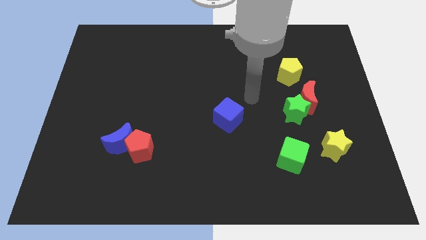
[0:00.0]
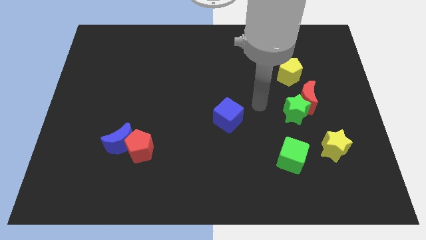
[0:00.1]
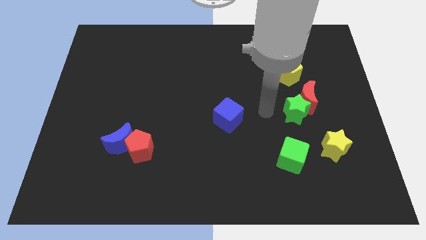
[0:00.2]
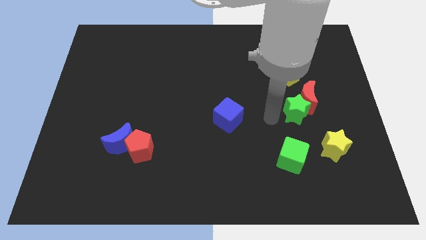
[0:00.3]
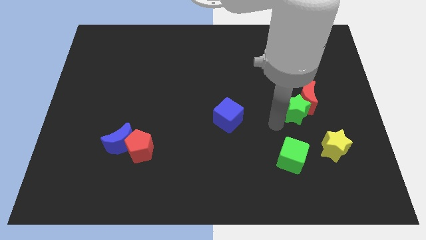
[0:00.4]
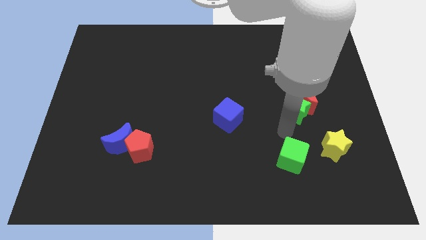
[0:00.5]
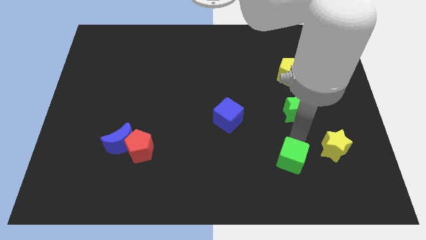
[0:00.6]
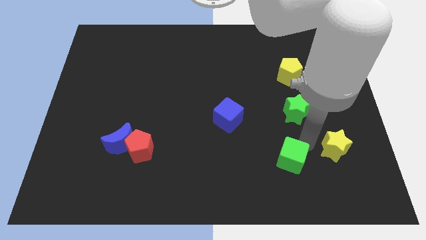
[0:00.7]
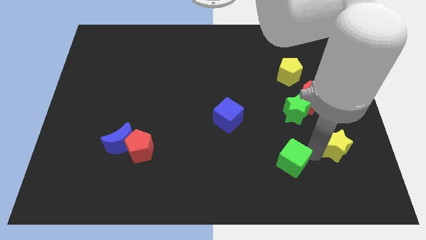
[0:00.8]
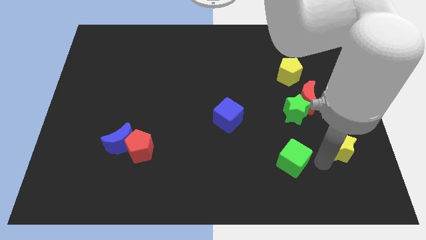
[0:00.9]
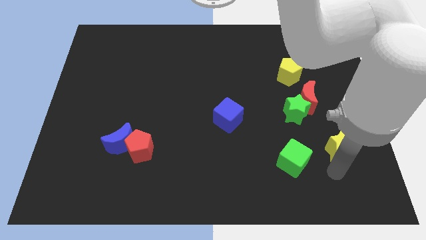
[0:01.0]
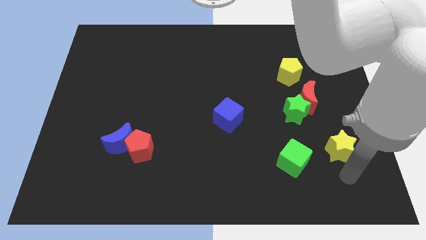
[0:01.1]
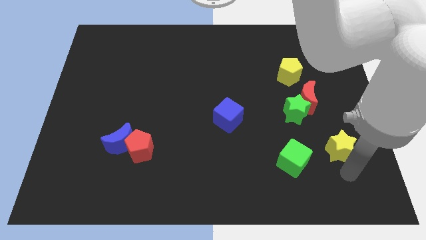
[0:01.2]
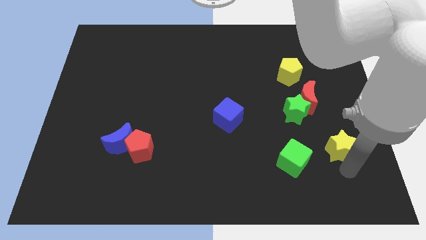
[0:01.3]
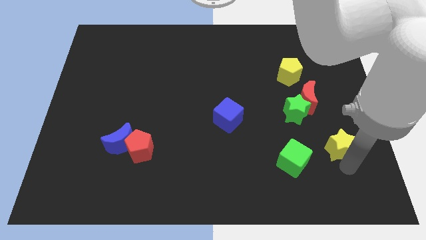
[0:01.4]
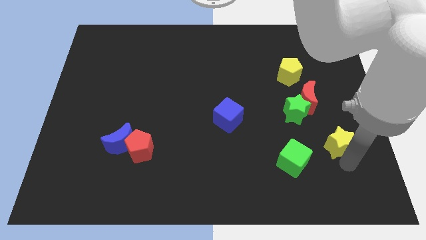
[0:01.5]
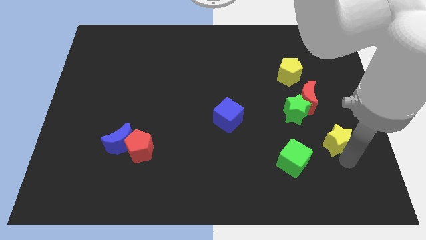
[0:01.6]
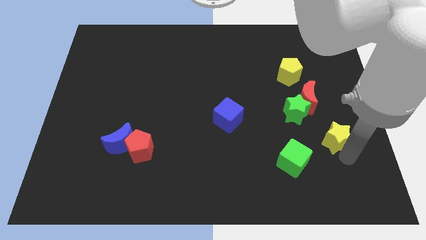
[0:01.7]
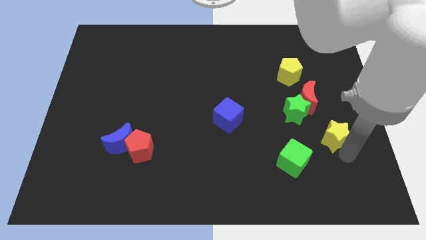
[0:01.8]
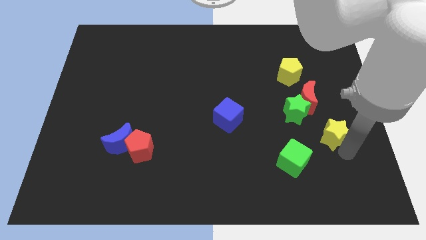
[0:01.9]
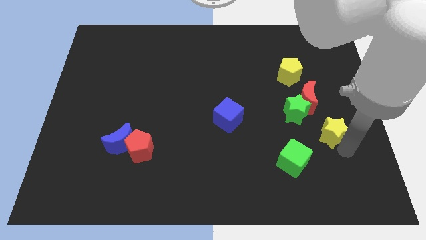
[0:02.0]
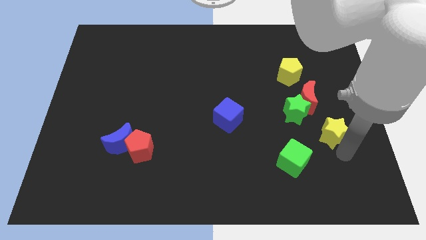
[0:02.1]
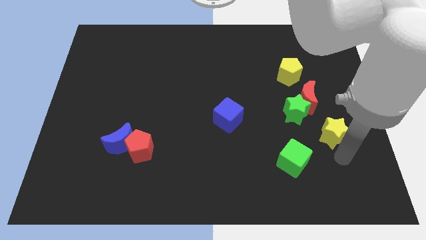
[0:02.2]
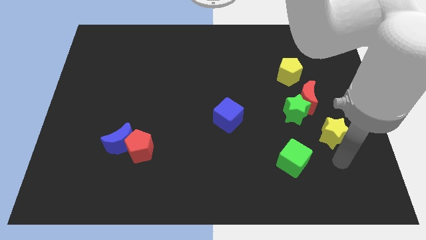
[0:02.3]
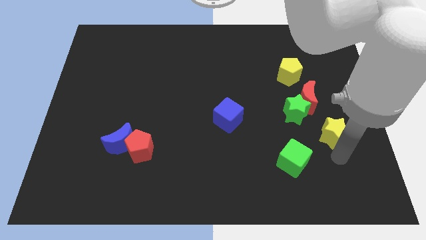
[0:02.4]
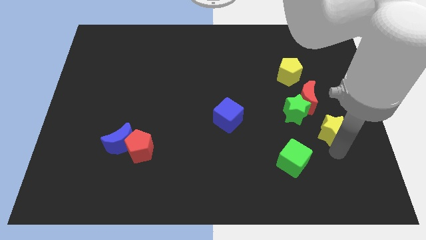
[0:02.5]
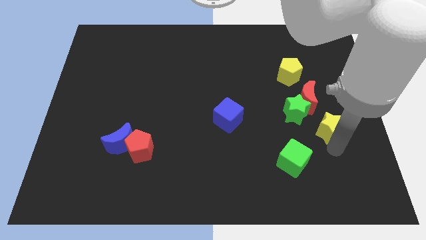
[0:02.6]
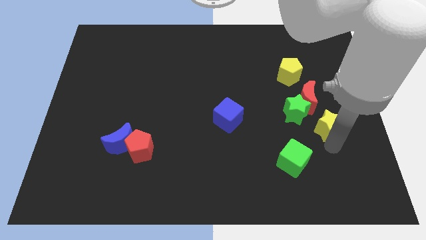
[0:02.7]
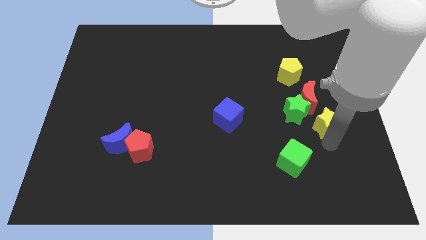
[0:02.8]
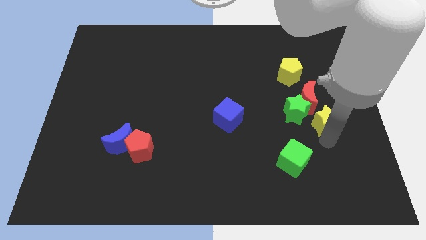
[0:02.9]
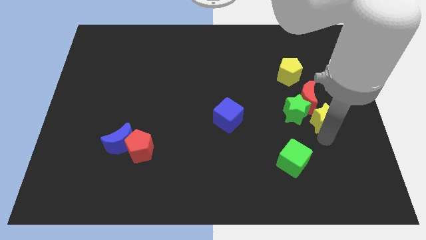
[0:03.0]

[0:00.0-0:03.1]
move the yellow star somewhat up

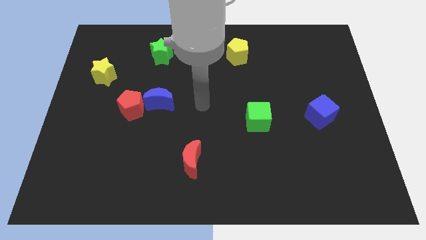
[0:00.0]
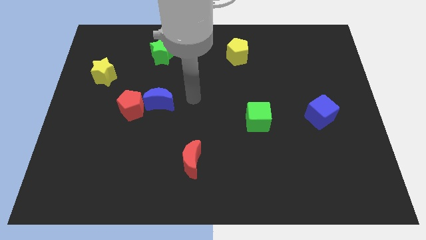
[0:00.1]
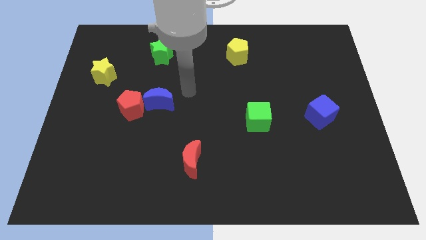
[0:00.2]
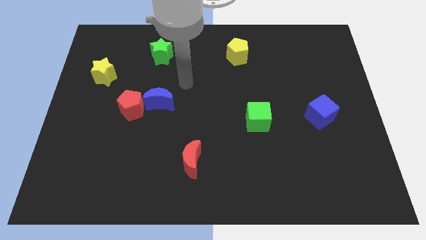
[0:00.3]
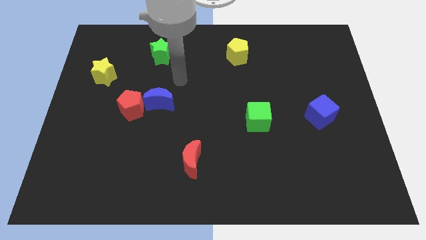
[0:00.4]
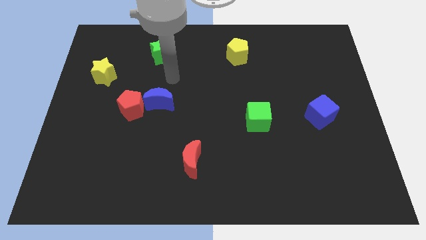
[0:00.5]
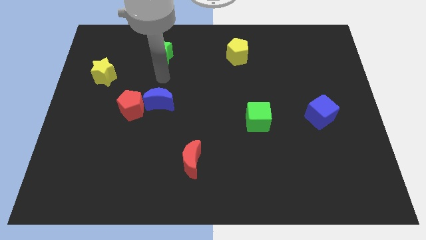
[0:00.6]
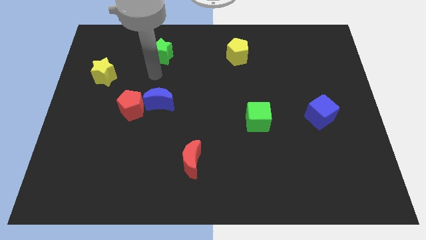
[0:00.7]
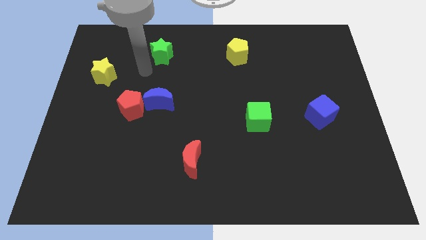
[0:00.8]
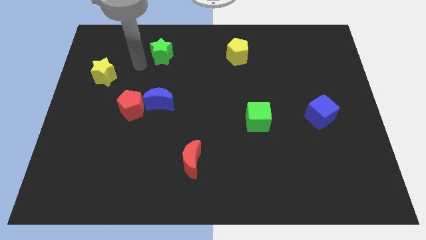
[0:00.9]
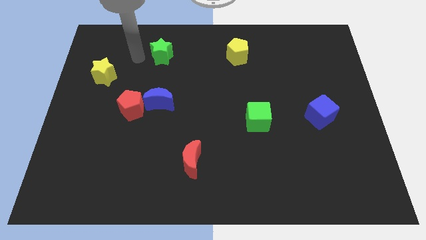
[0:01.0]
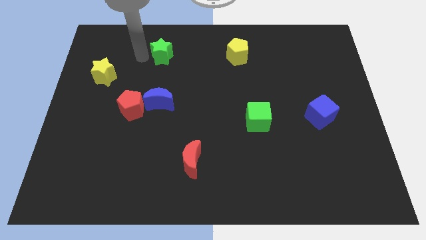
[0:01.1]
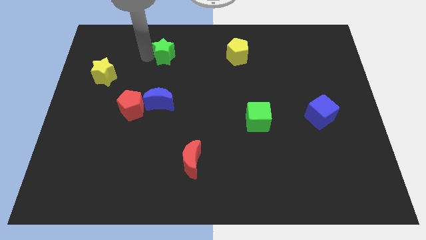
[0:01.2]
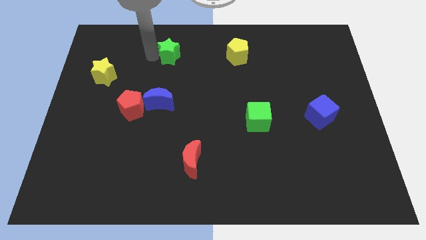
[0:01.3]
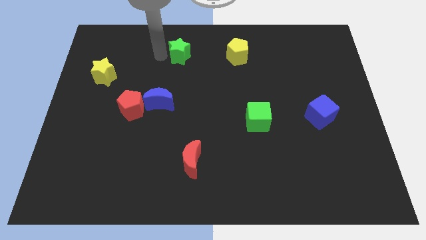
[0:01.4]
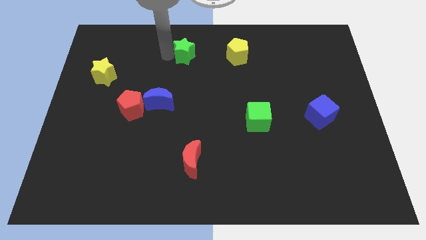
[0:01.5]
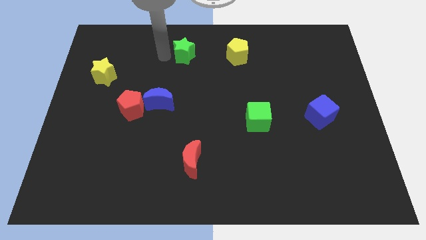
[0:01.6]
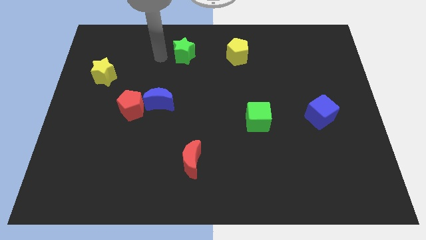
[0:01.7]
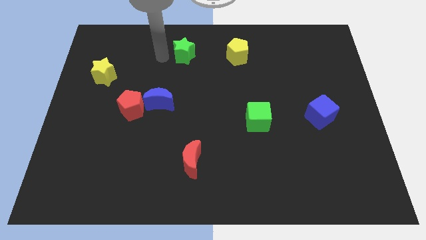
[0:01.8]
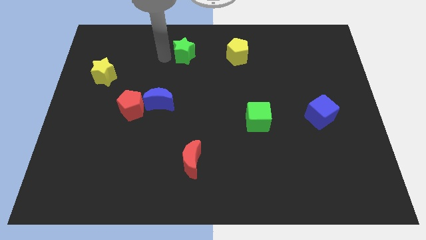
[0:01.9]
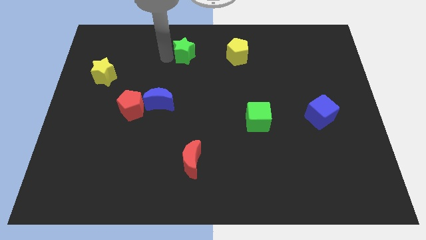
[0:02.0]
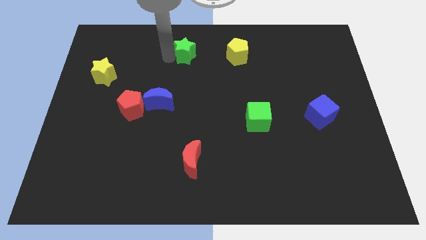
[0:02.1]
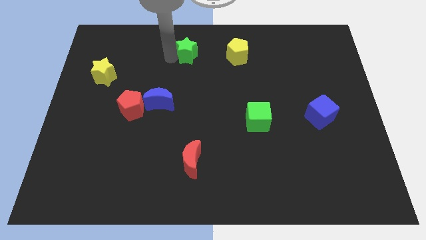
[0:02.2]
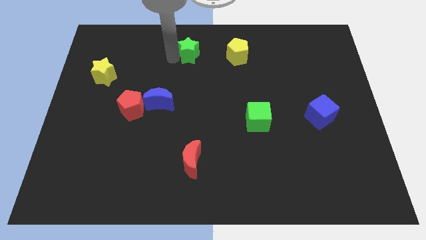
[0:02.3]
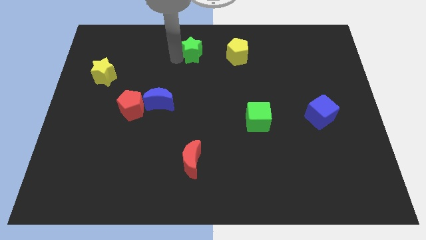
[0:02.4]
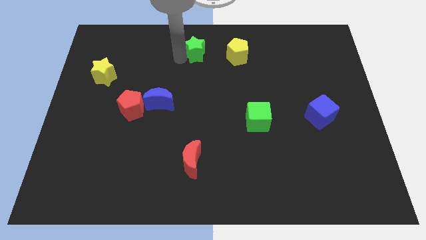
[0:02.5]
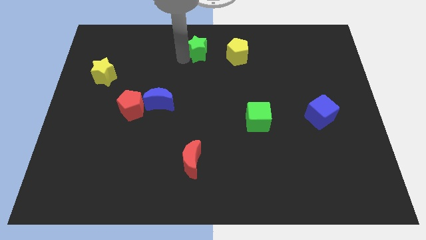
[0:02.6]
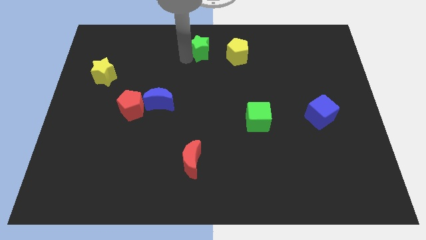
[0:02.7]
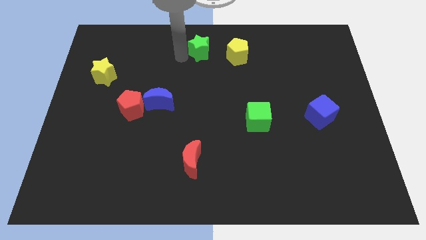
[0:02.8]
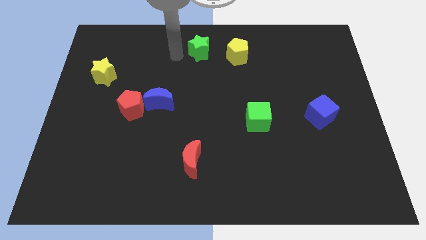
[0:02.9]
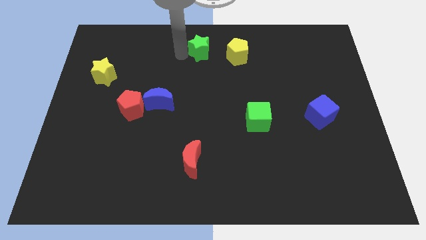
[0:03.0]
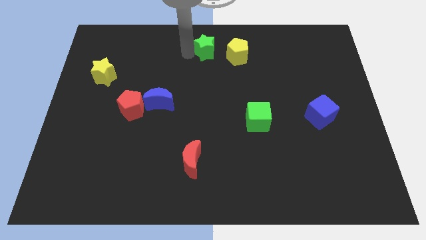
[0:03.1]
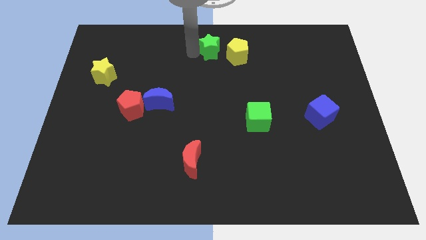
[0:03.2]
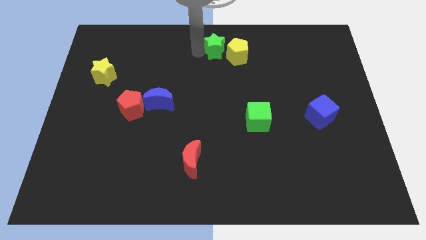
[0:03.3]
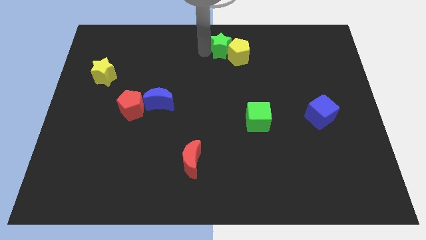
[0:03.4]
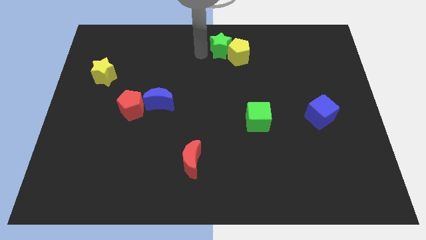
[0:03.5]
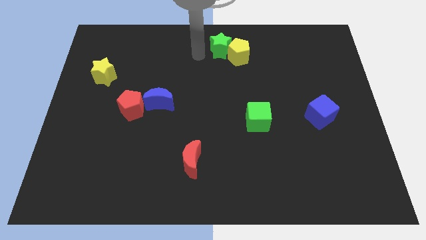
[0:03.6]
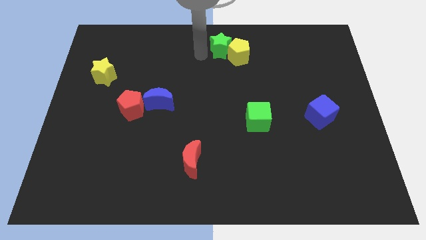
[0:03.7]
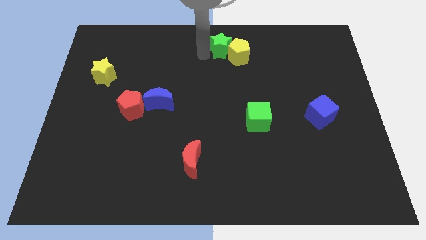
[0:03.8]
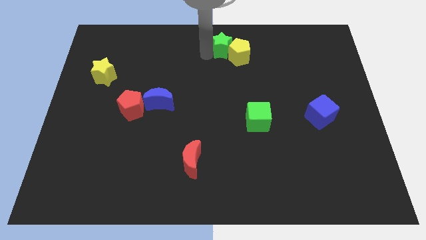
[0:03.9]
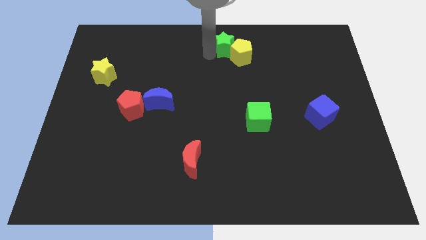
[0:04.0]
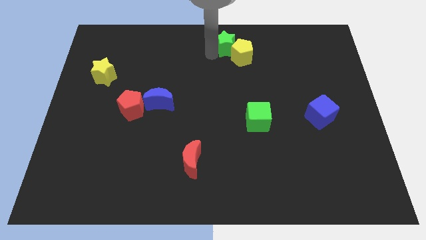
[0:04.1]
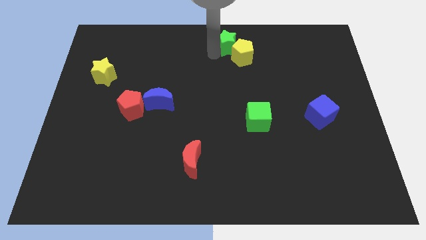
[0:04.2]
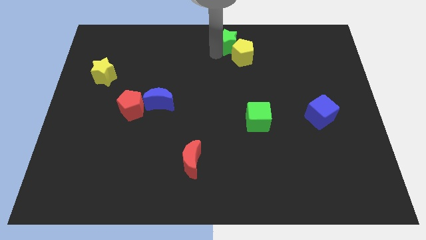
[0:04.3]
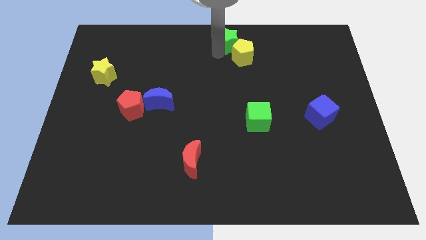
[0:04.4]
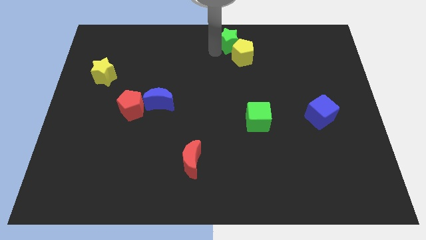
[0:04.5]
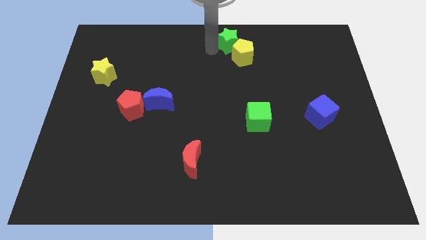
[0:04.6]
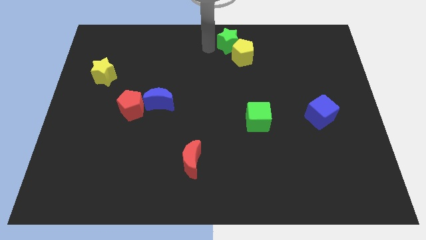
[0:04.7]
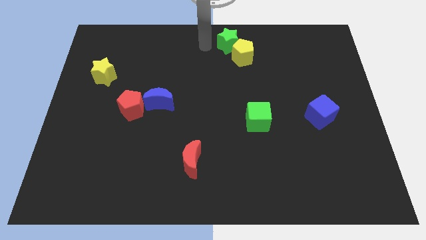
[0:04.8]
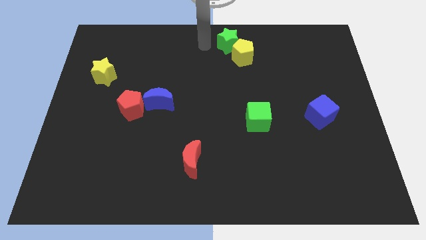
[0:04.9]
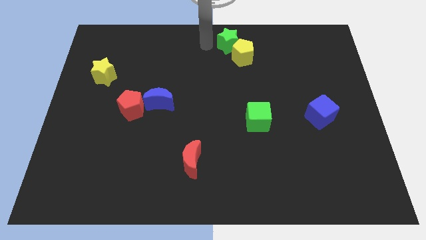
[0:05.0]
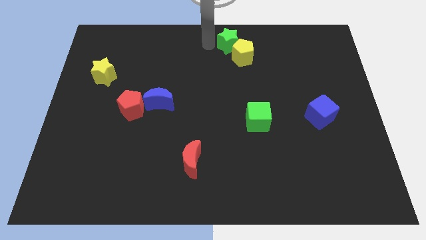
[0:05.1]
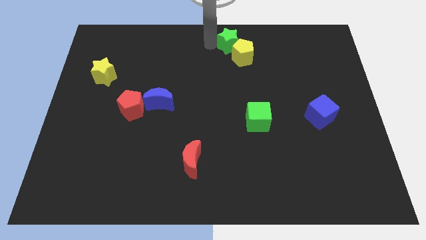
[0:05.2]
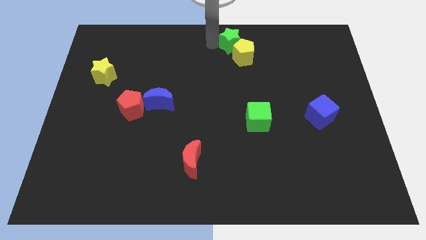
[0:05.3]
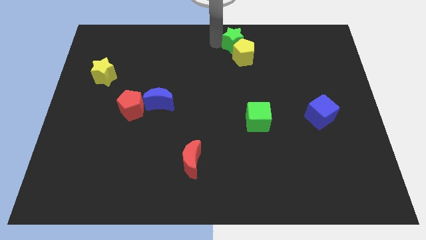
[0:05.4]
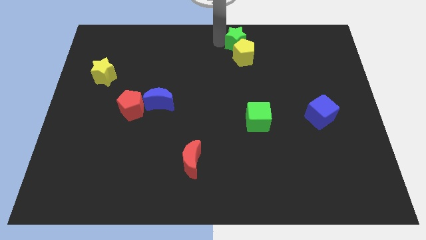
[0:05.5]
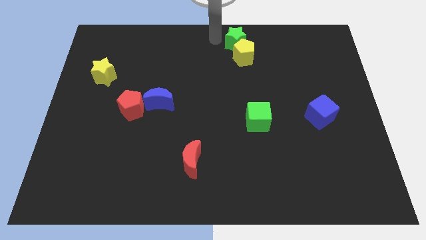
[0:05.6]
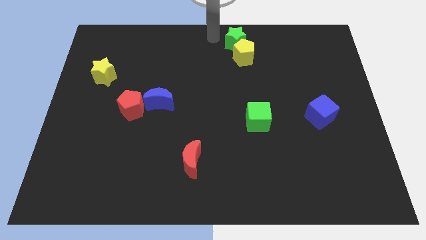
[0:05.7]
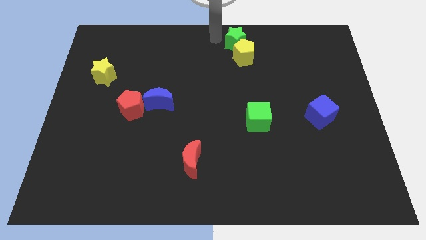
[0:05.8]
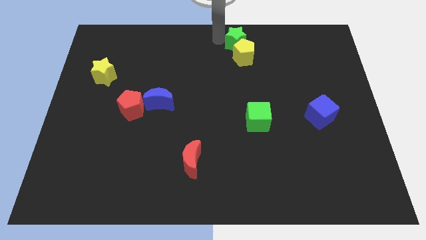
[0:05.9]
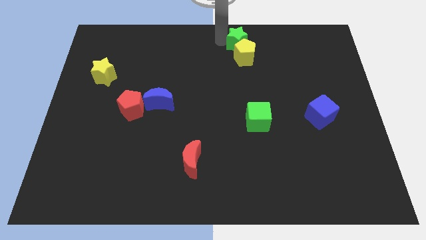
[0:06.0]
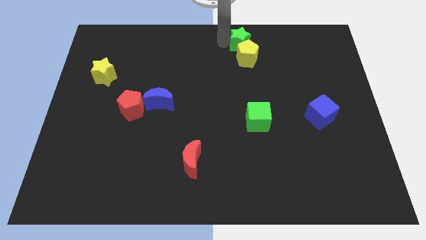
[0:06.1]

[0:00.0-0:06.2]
slide the green star right
